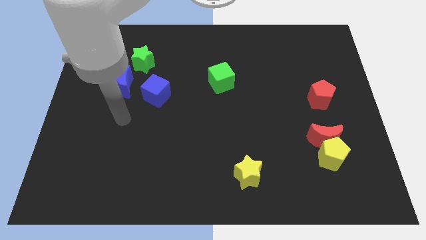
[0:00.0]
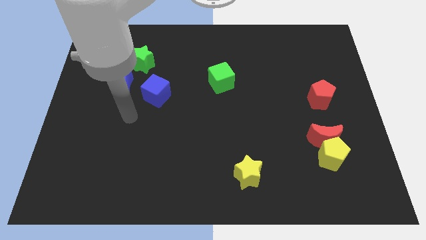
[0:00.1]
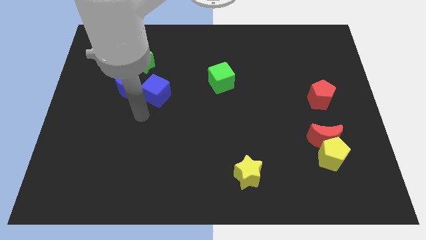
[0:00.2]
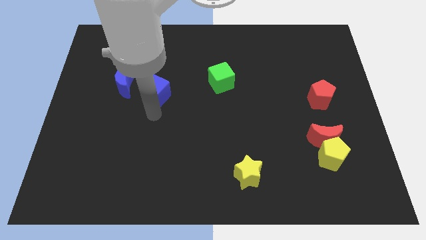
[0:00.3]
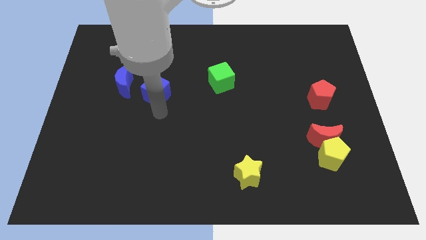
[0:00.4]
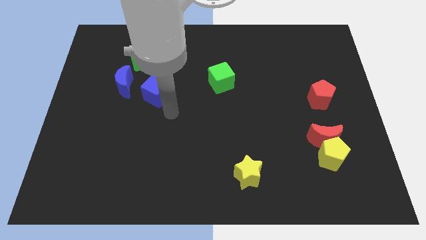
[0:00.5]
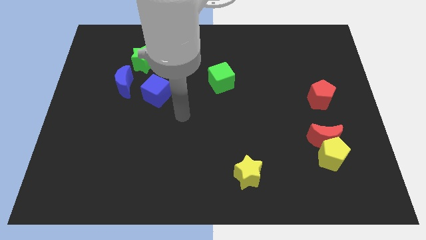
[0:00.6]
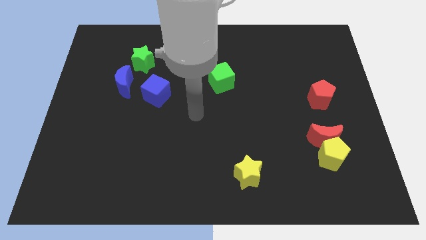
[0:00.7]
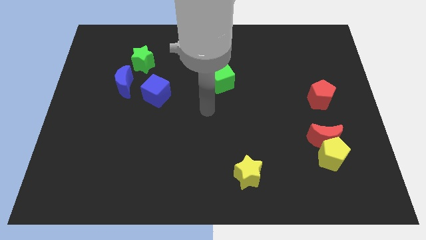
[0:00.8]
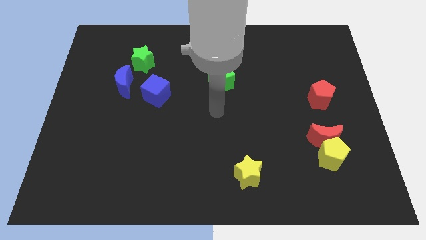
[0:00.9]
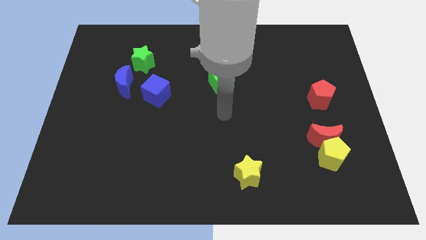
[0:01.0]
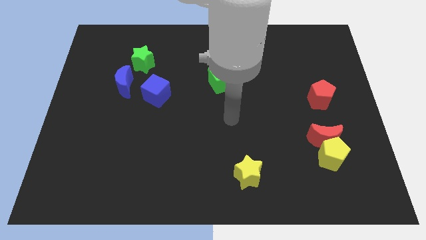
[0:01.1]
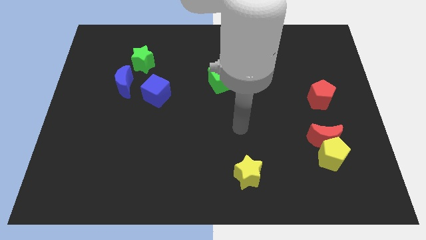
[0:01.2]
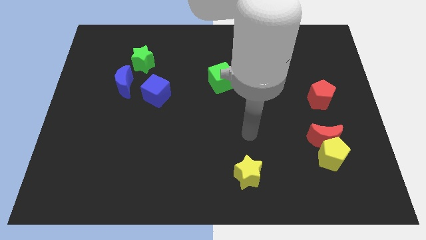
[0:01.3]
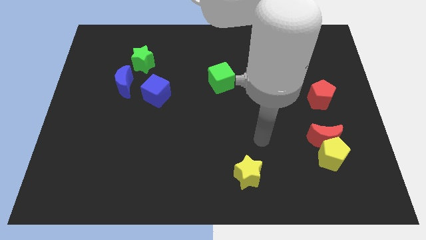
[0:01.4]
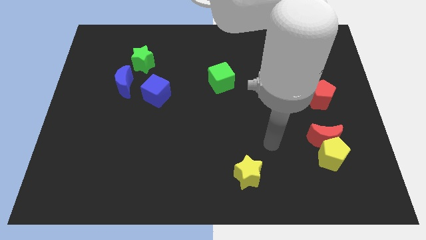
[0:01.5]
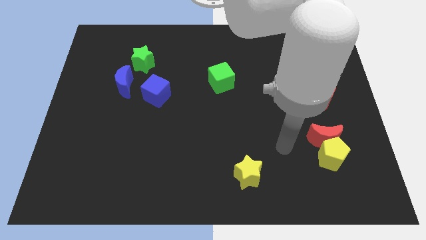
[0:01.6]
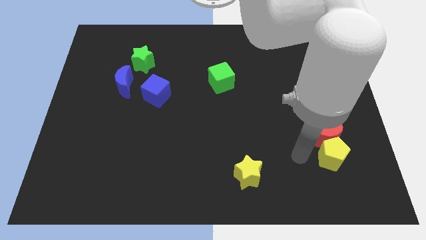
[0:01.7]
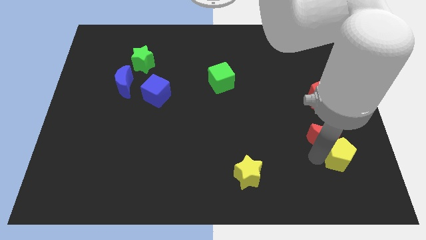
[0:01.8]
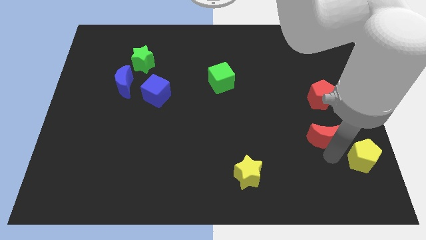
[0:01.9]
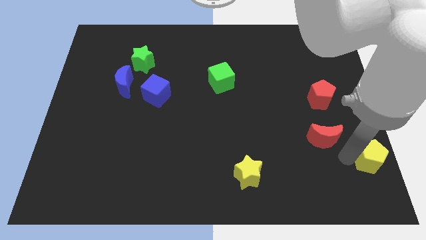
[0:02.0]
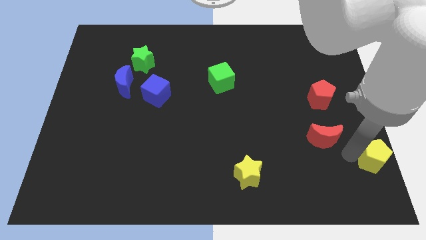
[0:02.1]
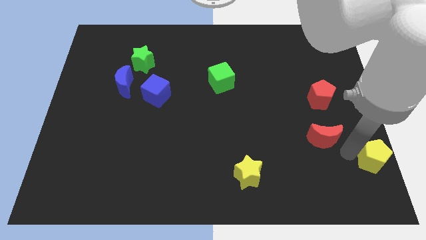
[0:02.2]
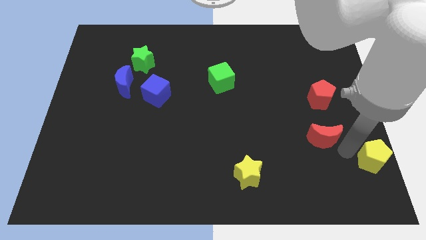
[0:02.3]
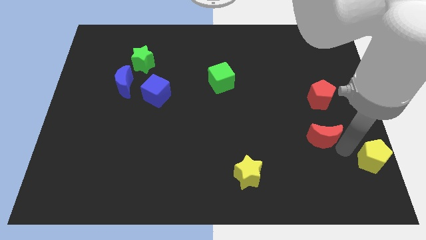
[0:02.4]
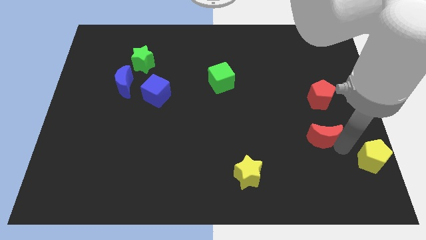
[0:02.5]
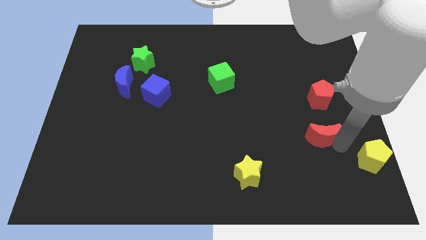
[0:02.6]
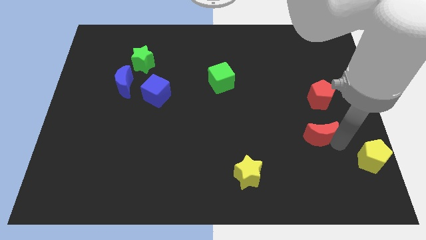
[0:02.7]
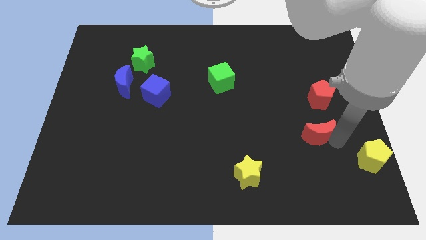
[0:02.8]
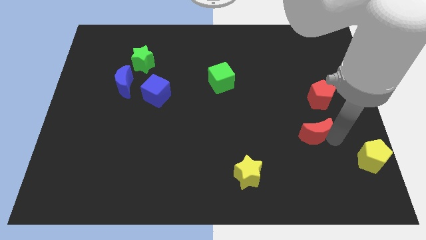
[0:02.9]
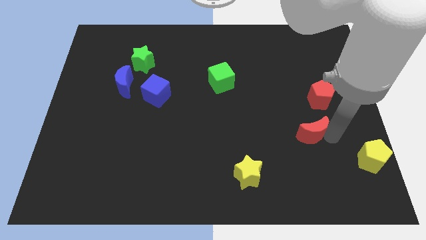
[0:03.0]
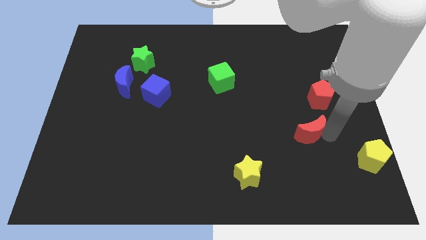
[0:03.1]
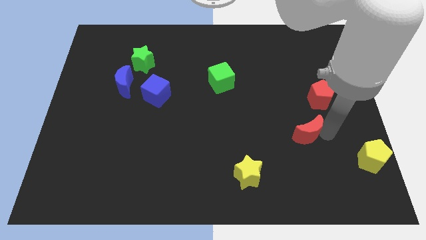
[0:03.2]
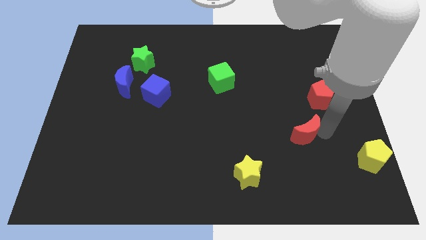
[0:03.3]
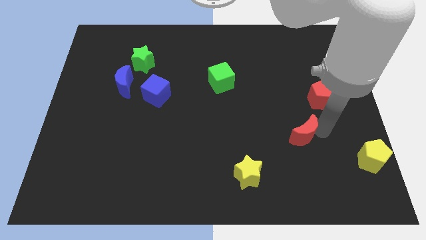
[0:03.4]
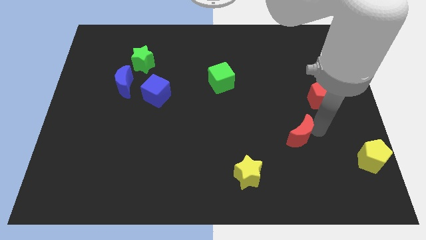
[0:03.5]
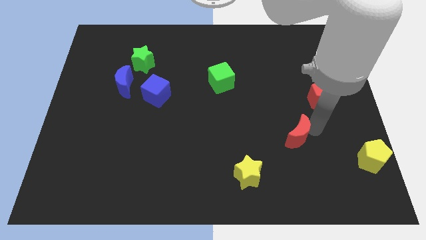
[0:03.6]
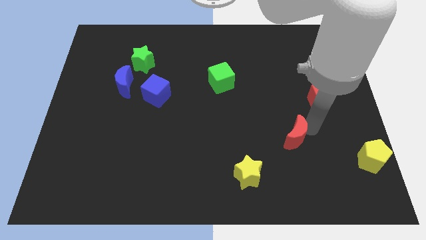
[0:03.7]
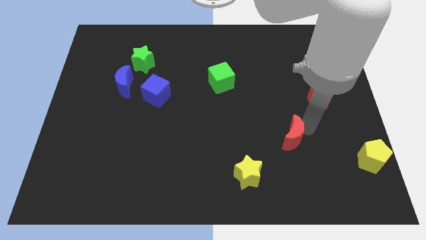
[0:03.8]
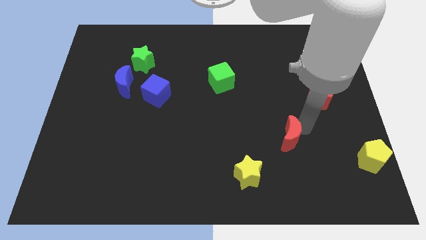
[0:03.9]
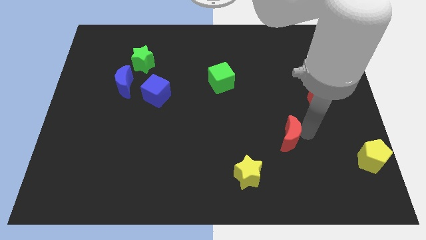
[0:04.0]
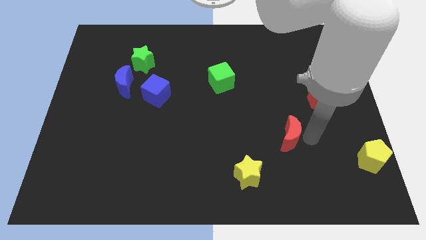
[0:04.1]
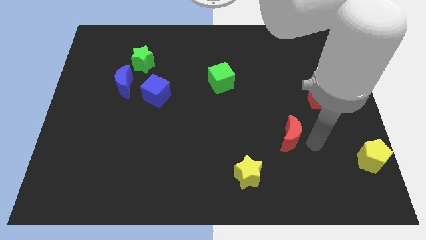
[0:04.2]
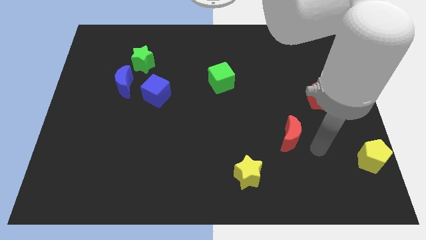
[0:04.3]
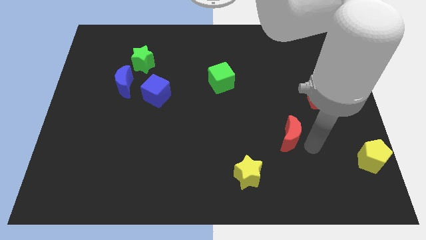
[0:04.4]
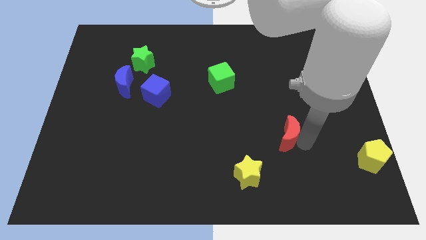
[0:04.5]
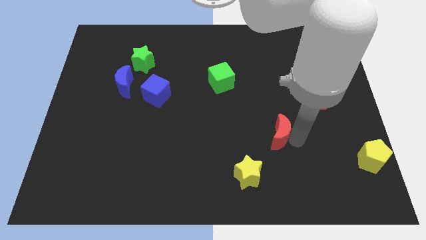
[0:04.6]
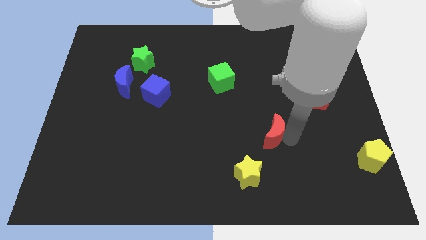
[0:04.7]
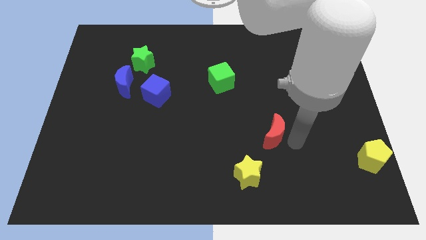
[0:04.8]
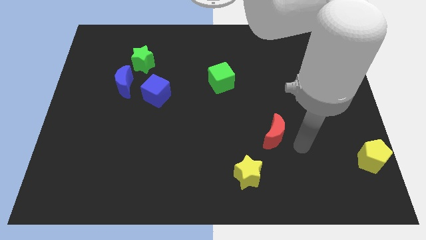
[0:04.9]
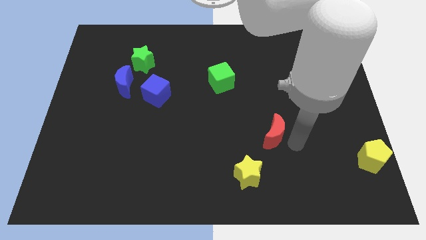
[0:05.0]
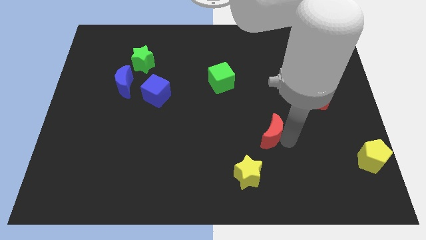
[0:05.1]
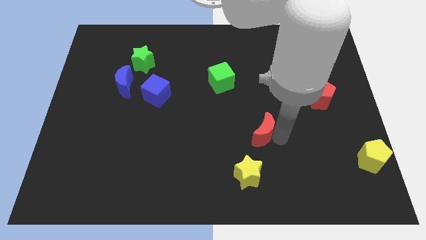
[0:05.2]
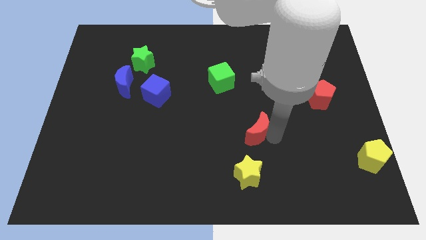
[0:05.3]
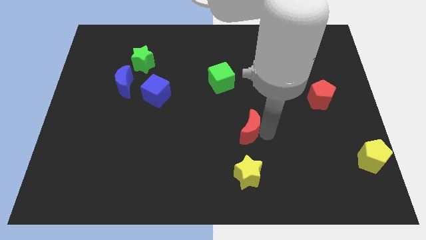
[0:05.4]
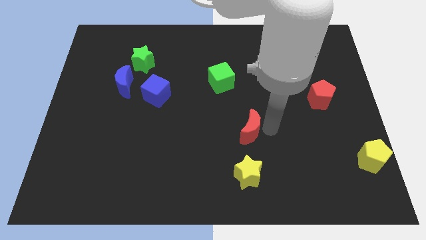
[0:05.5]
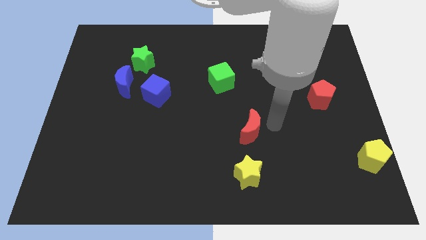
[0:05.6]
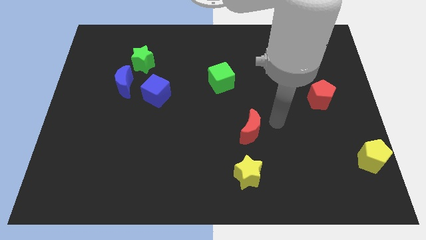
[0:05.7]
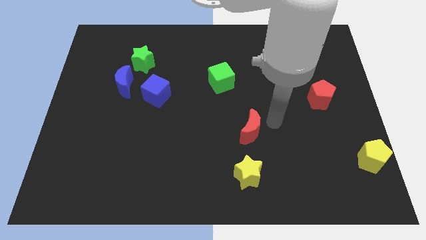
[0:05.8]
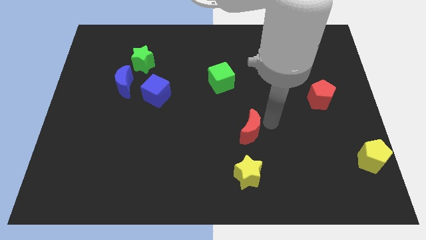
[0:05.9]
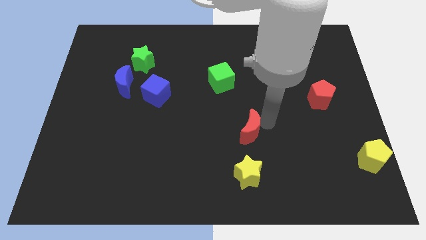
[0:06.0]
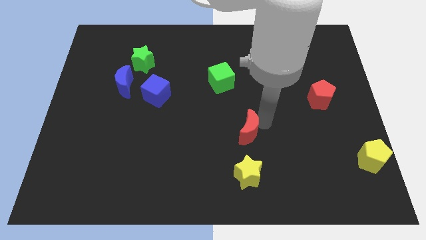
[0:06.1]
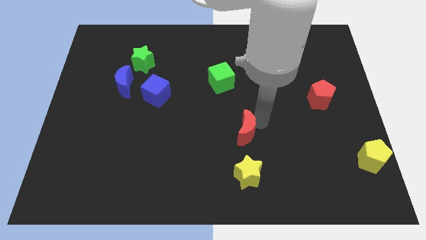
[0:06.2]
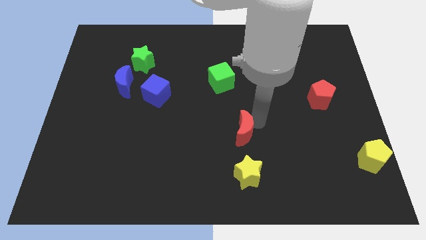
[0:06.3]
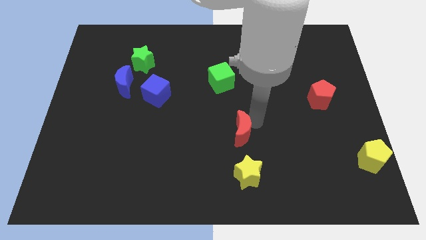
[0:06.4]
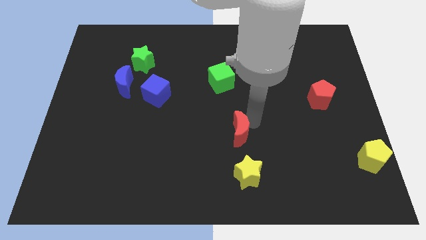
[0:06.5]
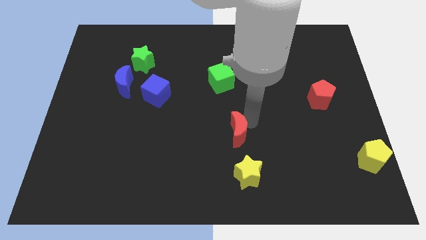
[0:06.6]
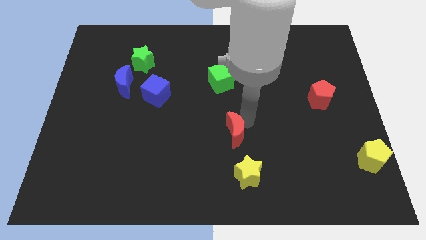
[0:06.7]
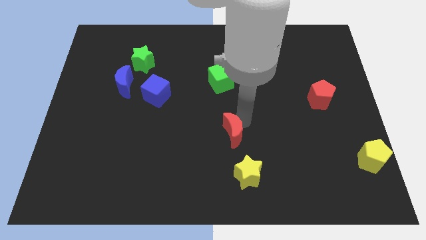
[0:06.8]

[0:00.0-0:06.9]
move the red moon to the left

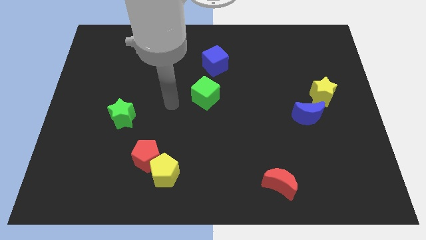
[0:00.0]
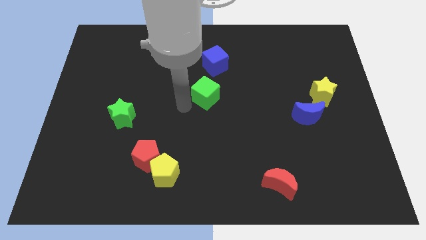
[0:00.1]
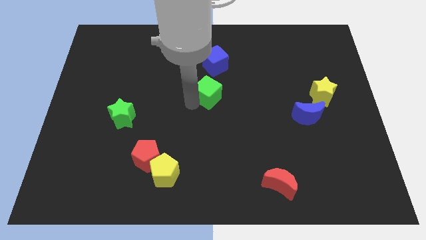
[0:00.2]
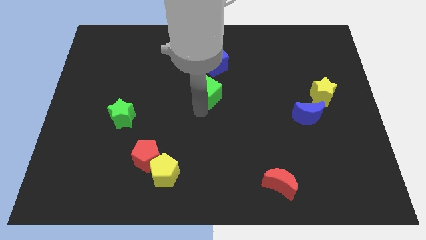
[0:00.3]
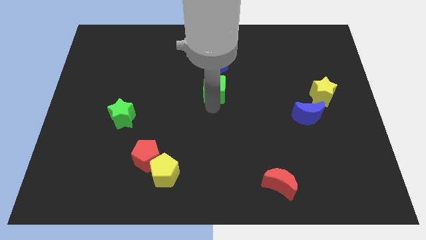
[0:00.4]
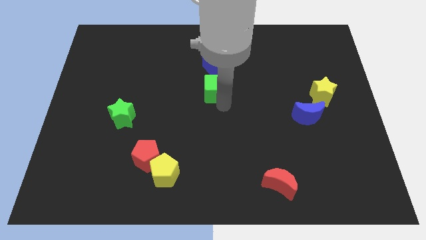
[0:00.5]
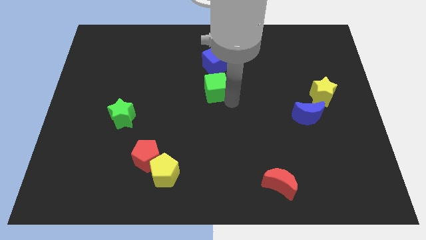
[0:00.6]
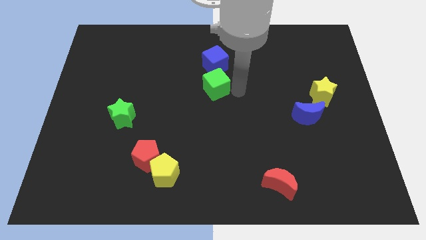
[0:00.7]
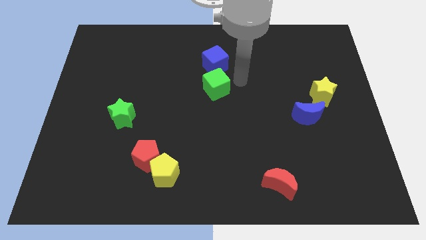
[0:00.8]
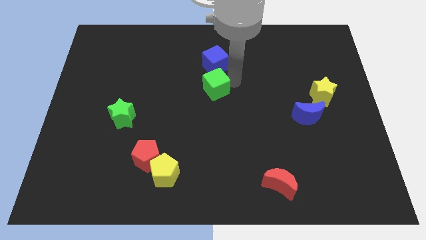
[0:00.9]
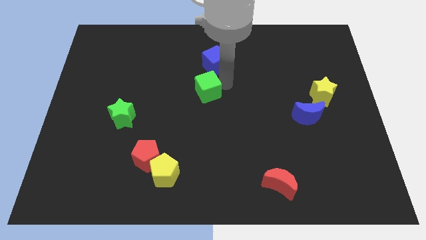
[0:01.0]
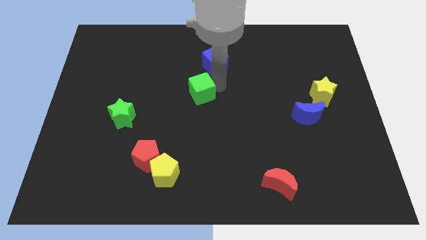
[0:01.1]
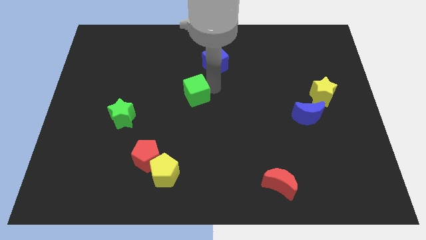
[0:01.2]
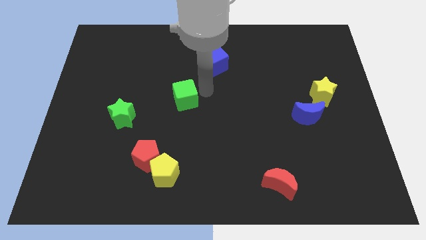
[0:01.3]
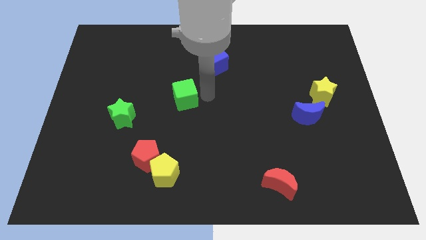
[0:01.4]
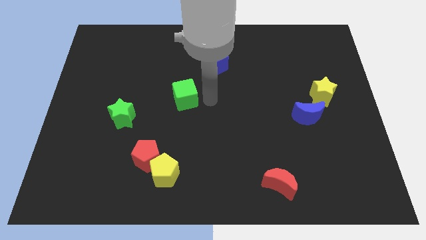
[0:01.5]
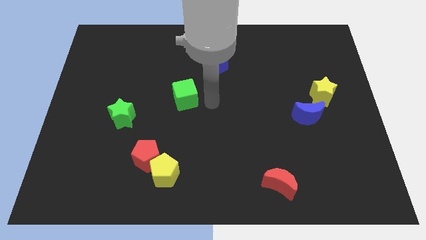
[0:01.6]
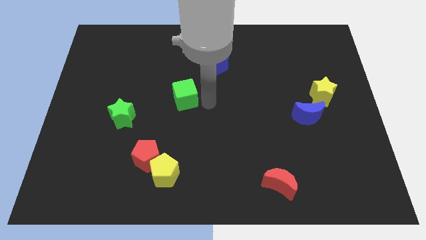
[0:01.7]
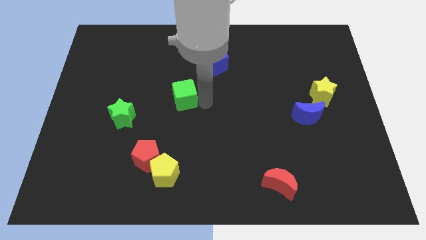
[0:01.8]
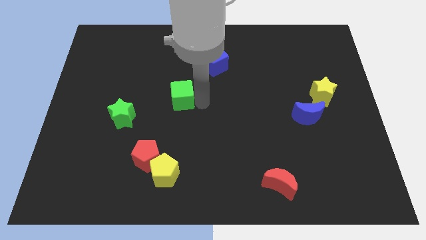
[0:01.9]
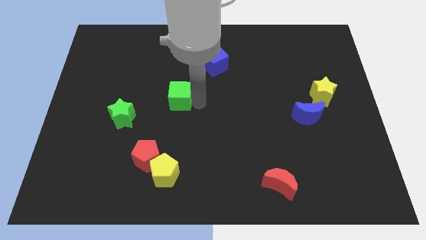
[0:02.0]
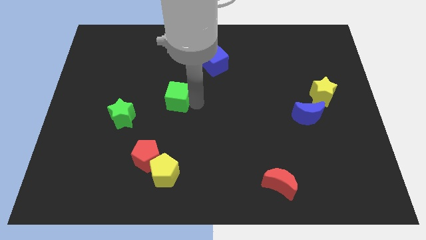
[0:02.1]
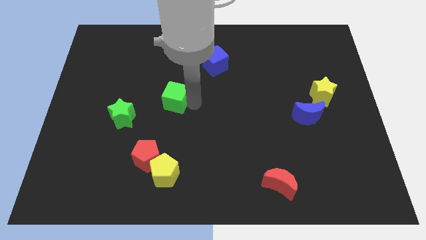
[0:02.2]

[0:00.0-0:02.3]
slide the green cube somewhat left
